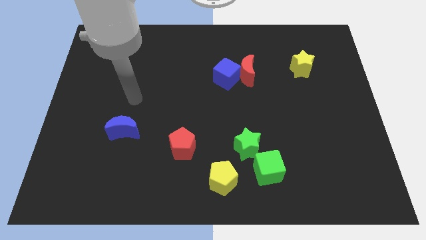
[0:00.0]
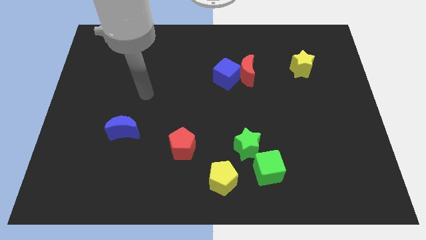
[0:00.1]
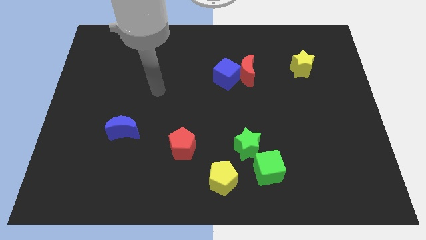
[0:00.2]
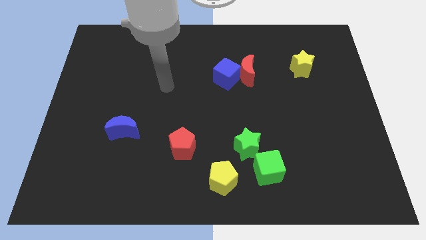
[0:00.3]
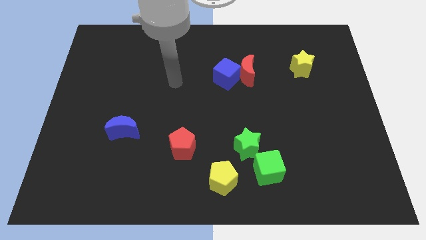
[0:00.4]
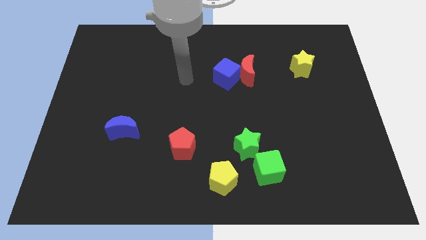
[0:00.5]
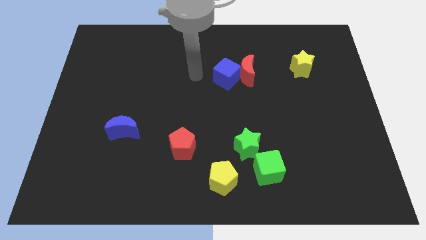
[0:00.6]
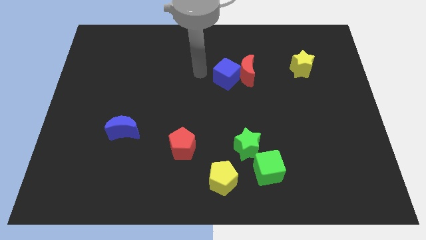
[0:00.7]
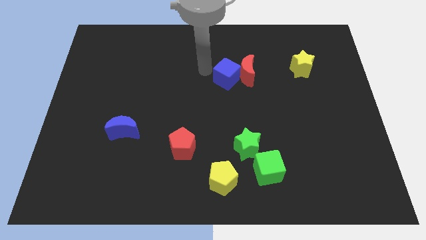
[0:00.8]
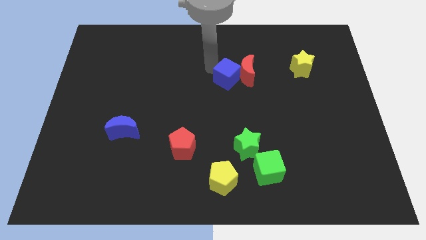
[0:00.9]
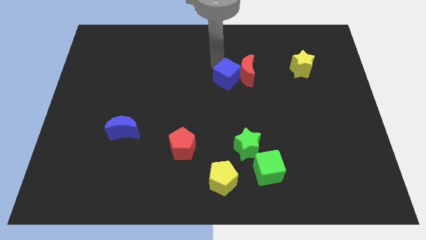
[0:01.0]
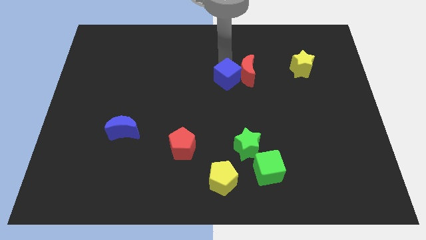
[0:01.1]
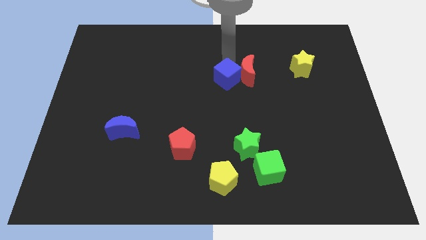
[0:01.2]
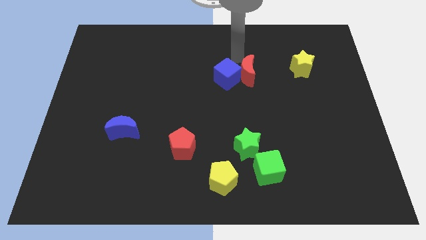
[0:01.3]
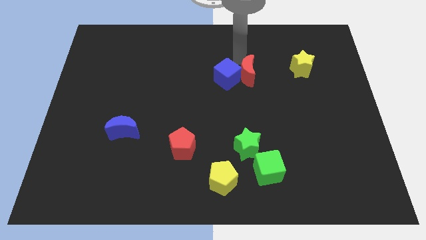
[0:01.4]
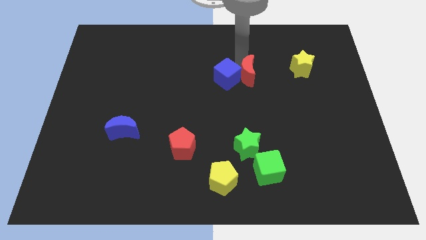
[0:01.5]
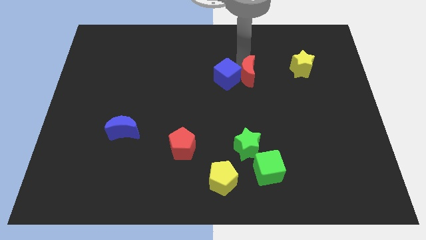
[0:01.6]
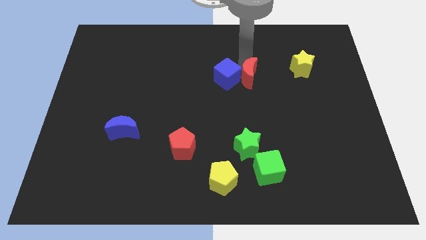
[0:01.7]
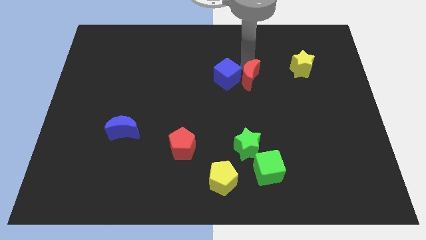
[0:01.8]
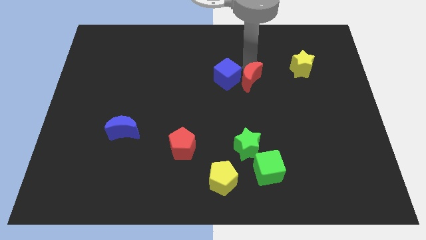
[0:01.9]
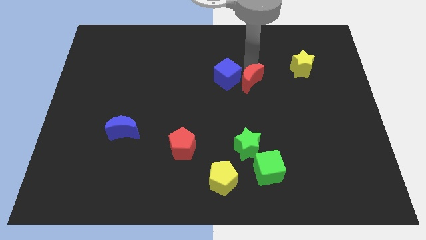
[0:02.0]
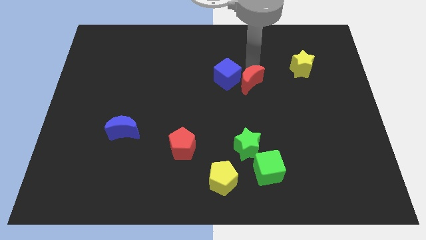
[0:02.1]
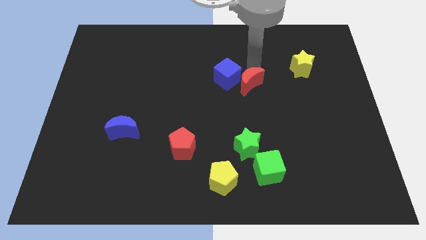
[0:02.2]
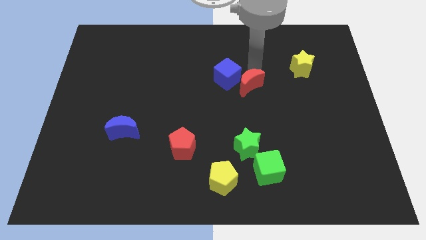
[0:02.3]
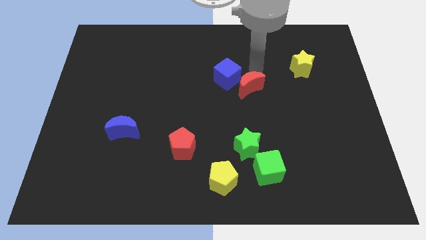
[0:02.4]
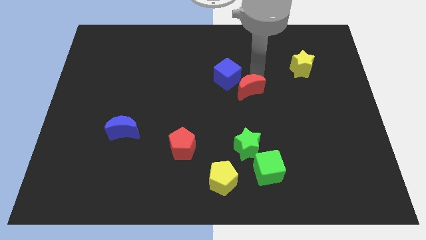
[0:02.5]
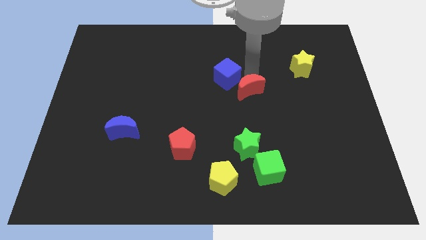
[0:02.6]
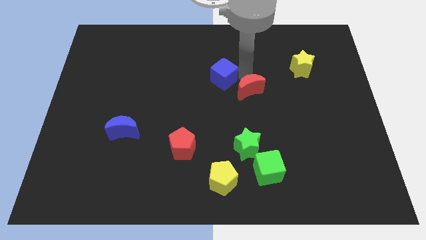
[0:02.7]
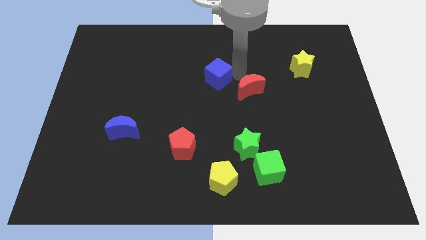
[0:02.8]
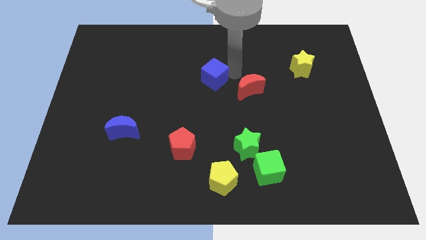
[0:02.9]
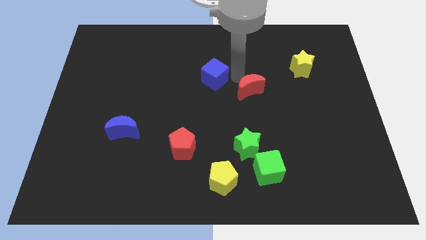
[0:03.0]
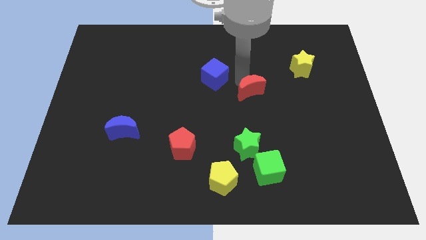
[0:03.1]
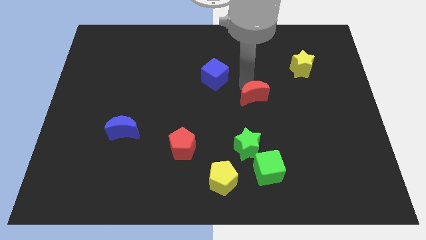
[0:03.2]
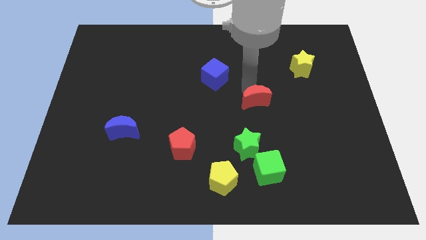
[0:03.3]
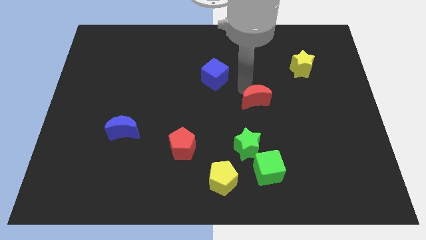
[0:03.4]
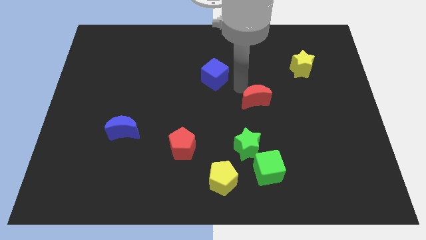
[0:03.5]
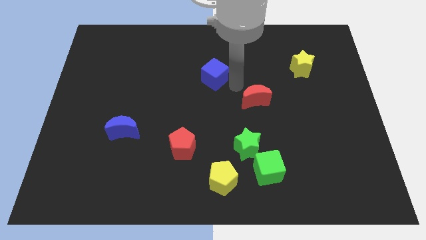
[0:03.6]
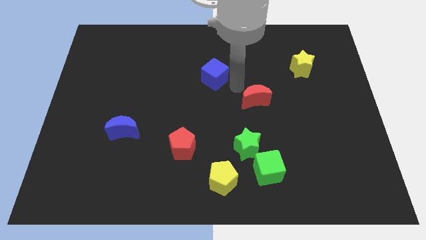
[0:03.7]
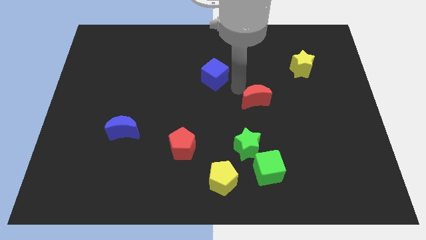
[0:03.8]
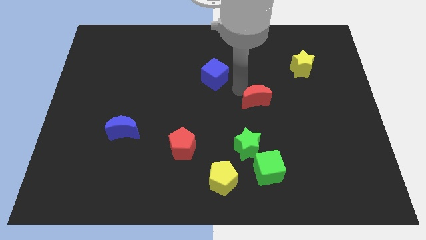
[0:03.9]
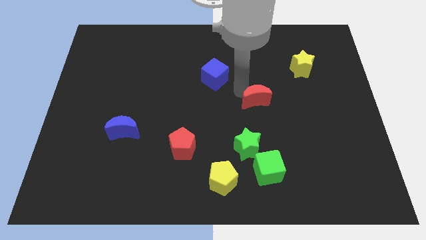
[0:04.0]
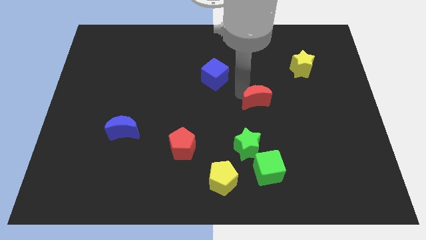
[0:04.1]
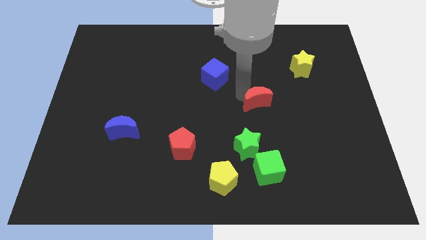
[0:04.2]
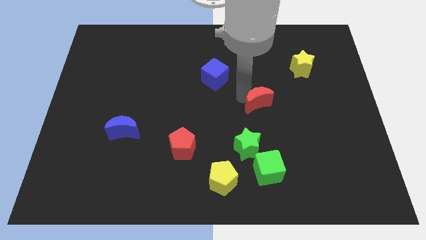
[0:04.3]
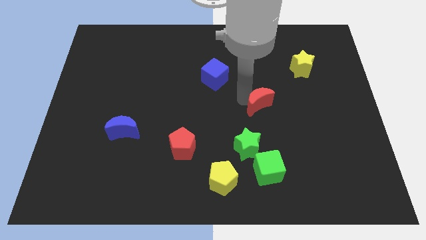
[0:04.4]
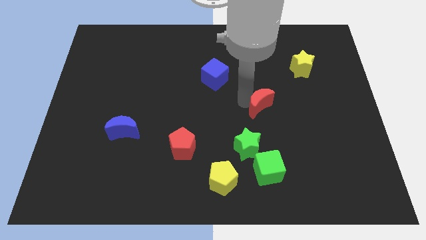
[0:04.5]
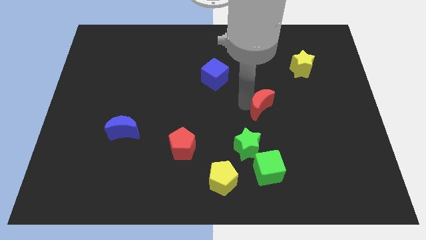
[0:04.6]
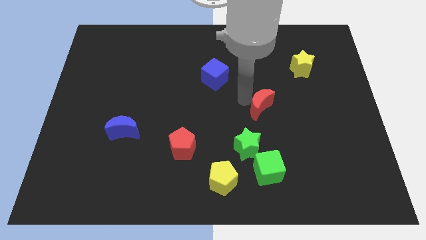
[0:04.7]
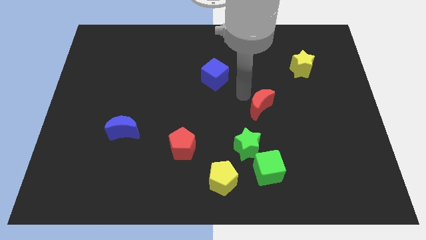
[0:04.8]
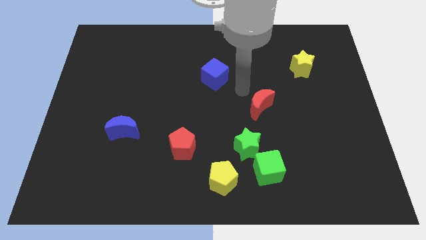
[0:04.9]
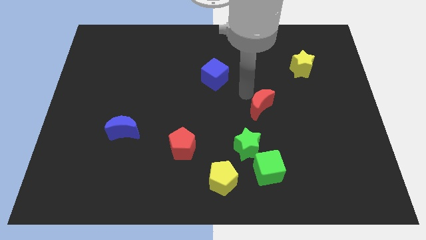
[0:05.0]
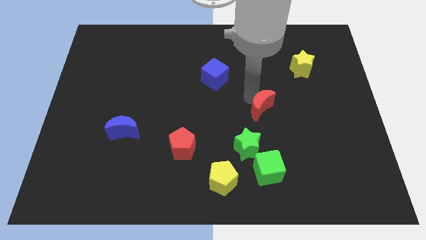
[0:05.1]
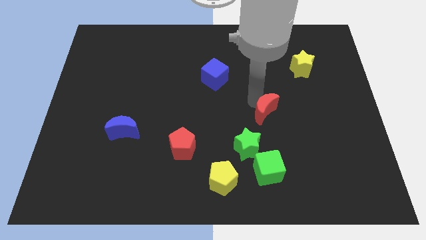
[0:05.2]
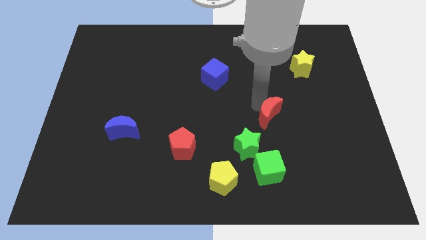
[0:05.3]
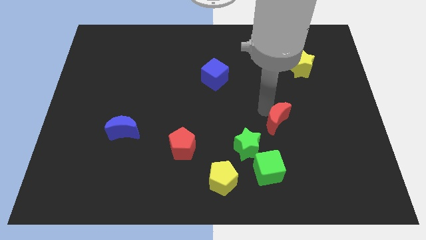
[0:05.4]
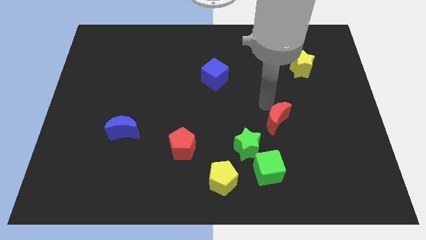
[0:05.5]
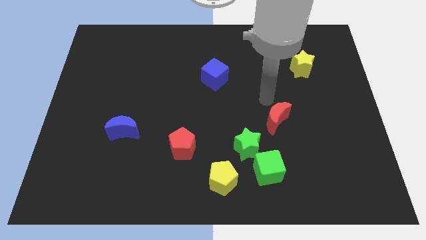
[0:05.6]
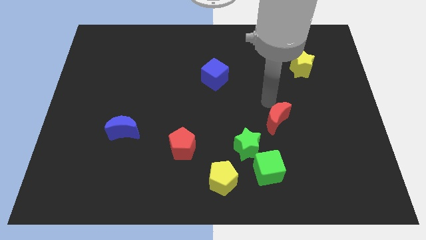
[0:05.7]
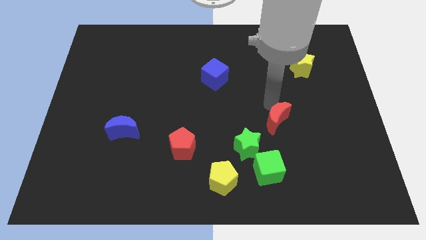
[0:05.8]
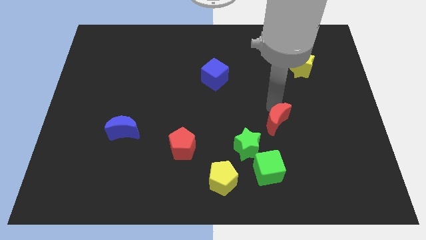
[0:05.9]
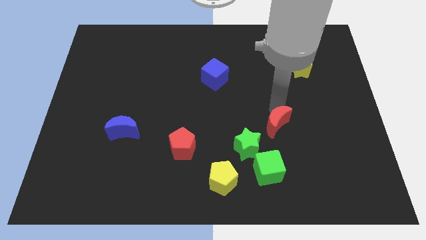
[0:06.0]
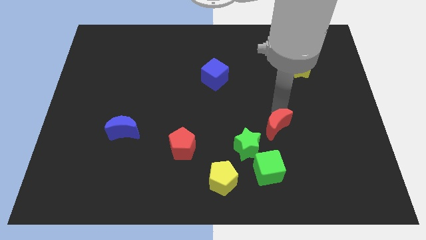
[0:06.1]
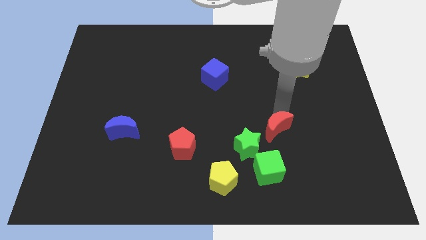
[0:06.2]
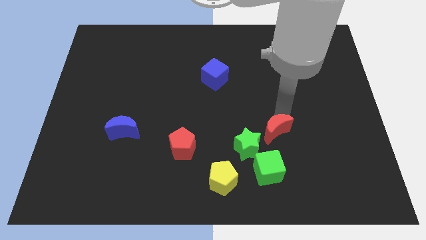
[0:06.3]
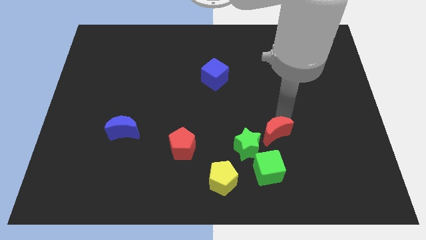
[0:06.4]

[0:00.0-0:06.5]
slide the red moon to the top right of the green cube

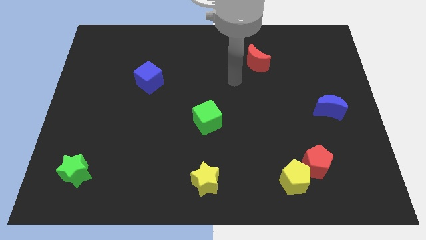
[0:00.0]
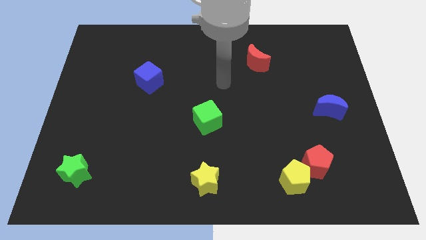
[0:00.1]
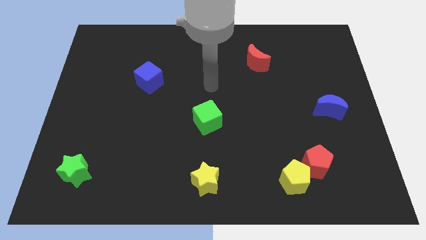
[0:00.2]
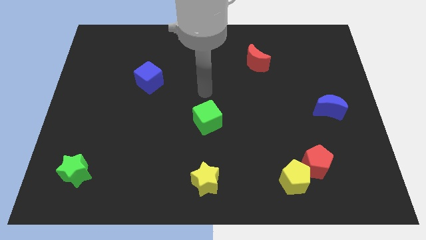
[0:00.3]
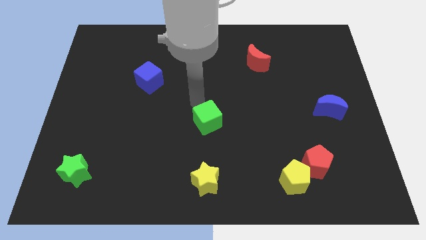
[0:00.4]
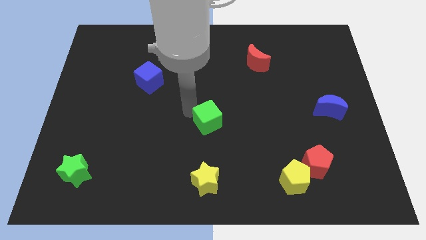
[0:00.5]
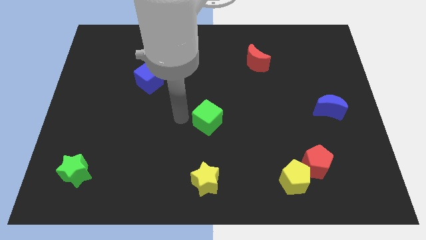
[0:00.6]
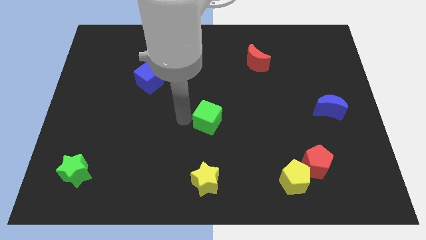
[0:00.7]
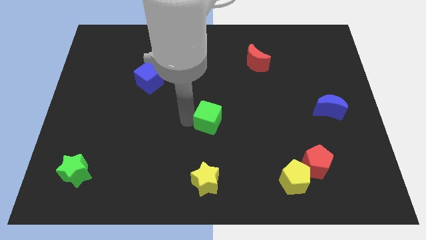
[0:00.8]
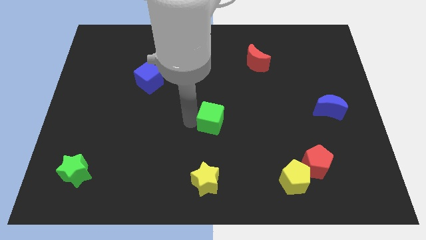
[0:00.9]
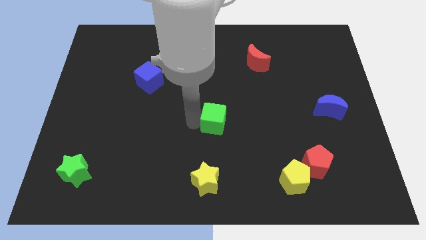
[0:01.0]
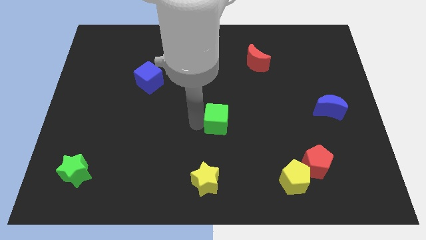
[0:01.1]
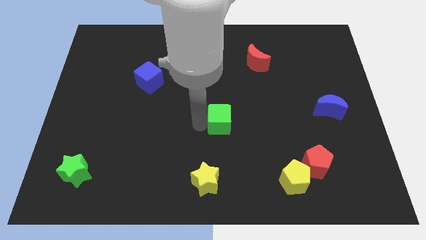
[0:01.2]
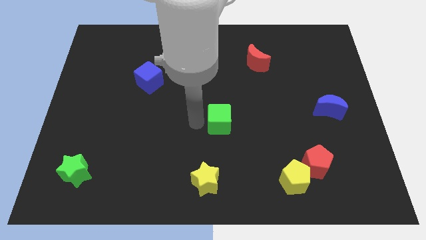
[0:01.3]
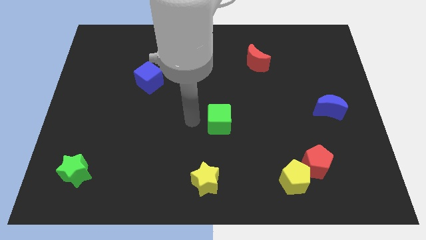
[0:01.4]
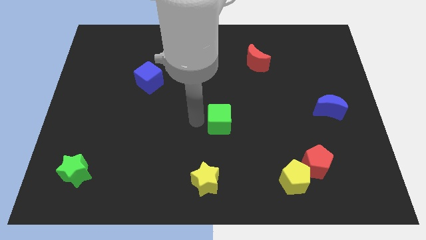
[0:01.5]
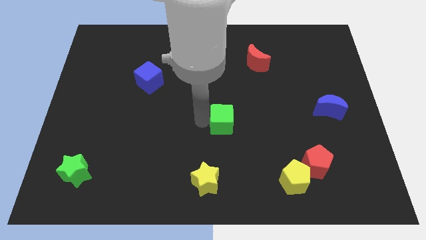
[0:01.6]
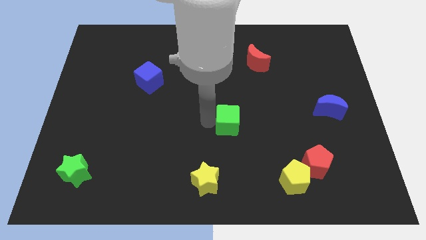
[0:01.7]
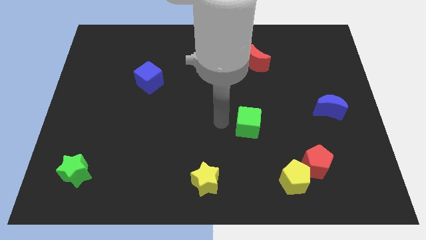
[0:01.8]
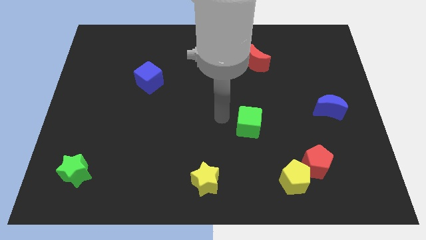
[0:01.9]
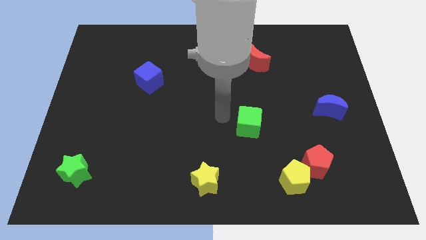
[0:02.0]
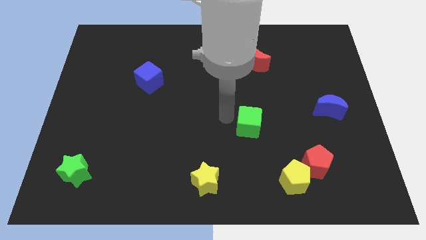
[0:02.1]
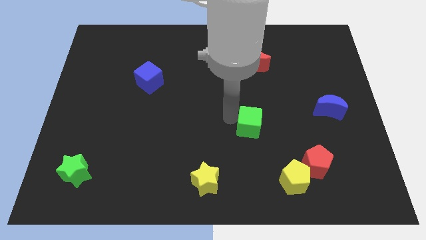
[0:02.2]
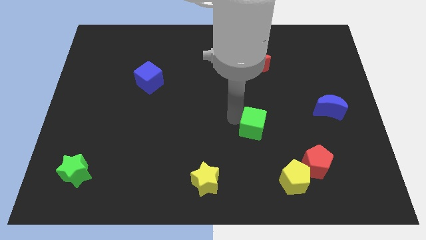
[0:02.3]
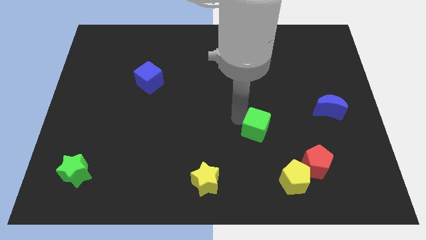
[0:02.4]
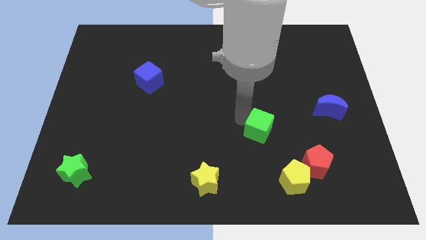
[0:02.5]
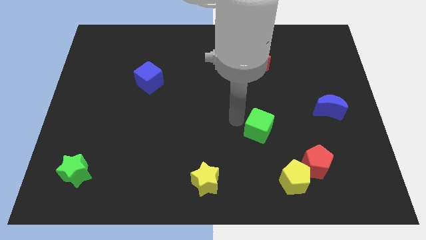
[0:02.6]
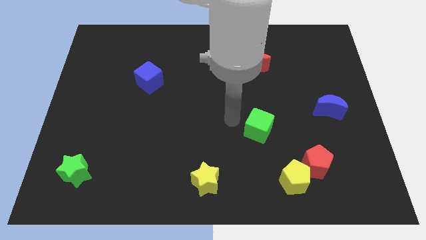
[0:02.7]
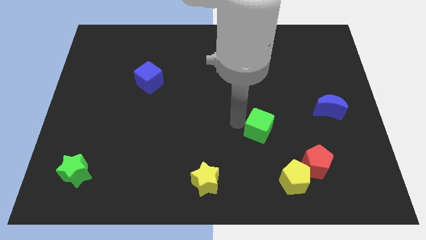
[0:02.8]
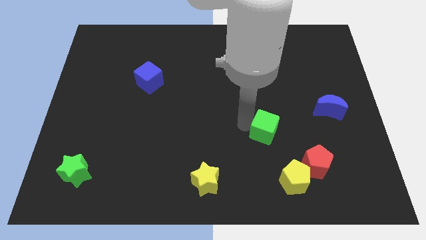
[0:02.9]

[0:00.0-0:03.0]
put the green cube above the yellow pentagon
